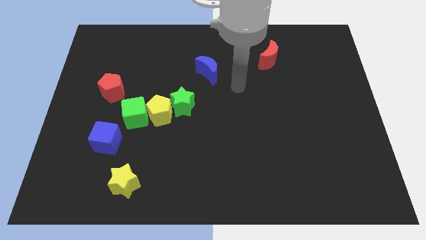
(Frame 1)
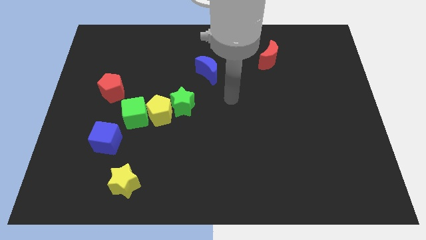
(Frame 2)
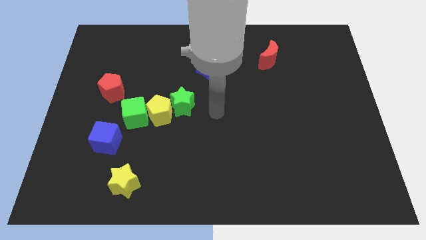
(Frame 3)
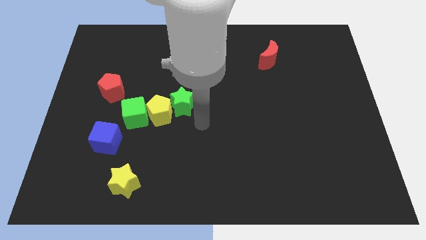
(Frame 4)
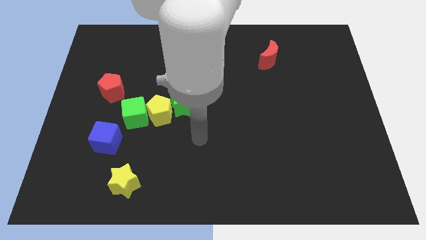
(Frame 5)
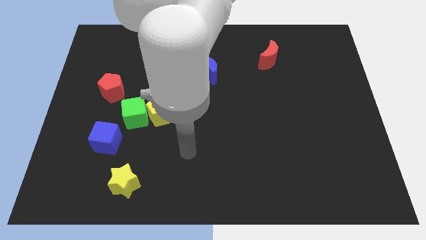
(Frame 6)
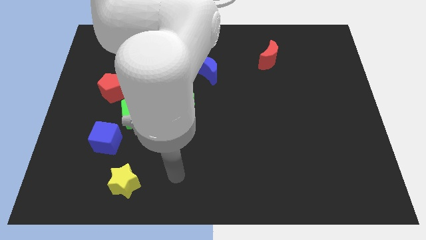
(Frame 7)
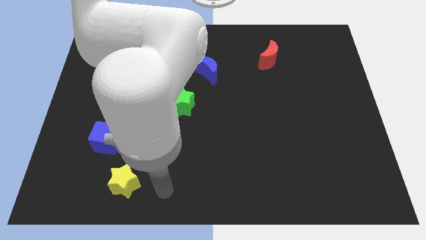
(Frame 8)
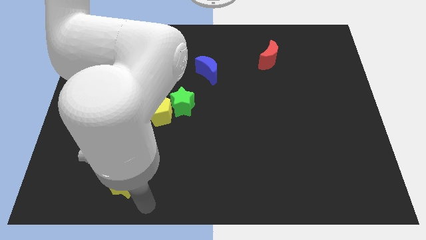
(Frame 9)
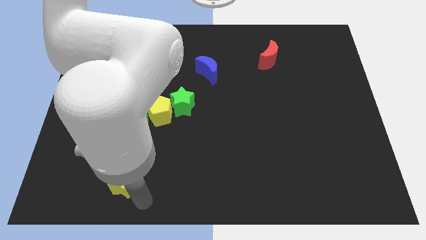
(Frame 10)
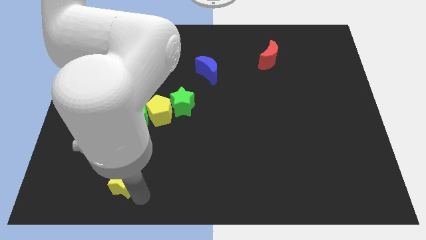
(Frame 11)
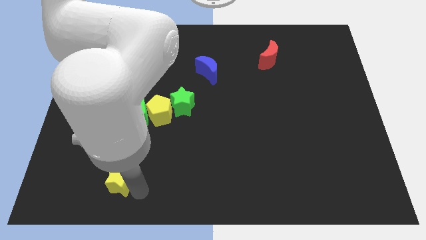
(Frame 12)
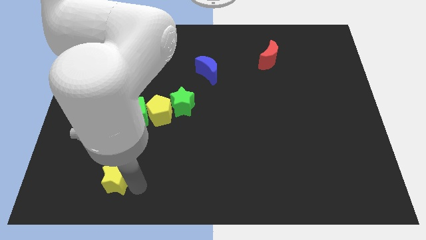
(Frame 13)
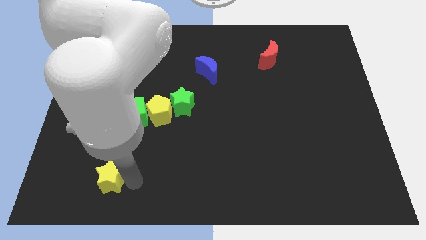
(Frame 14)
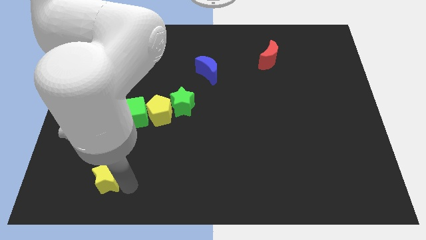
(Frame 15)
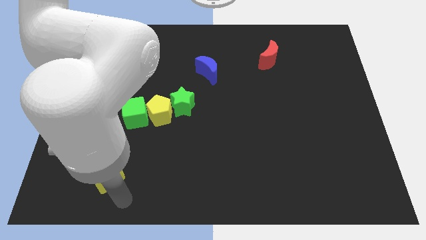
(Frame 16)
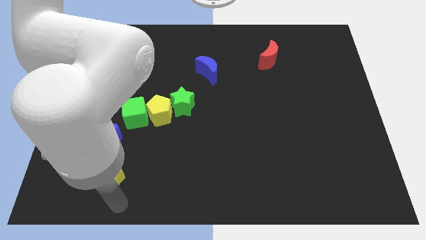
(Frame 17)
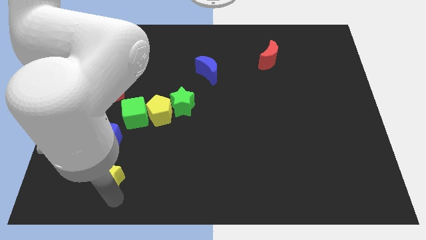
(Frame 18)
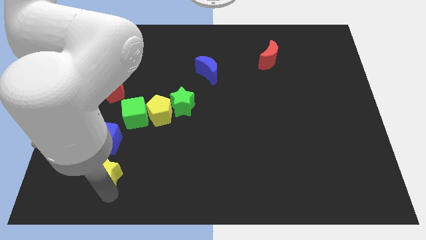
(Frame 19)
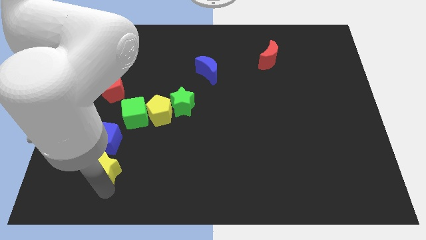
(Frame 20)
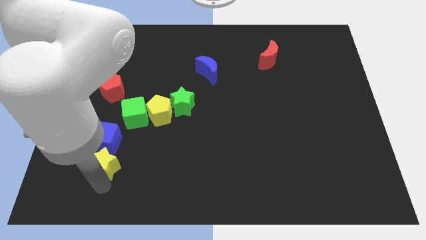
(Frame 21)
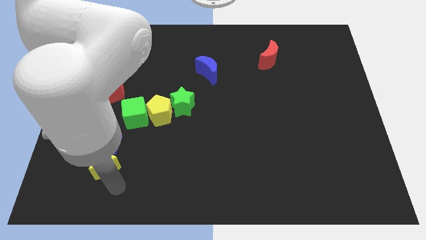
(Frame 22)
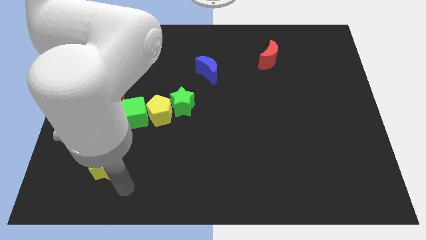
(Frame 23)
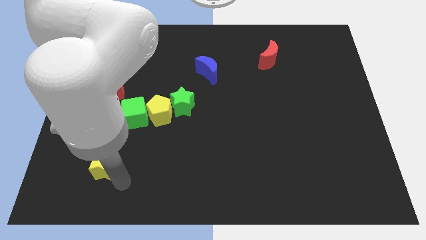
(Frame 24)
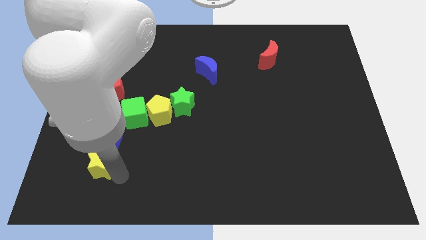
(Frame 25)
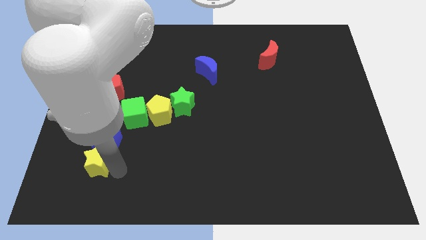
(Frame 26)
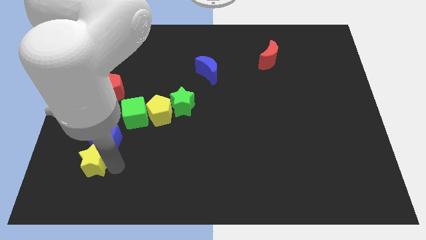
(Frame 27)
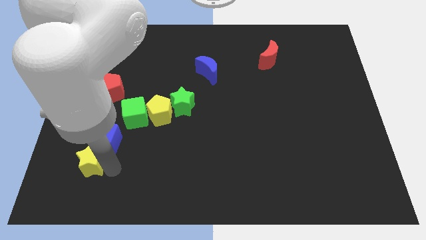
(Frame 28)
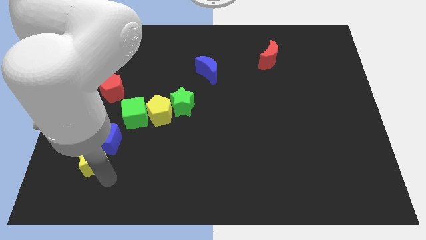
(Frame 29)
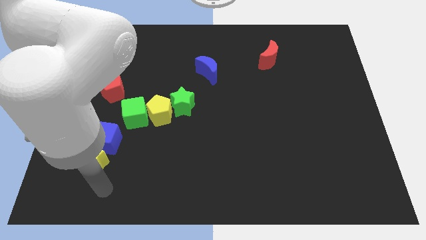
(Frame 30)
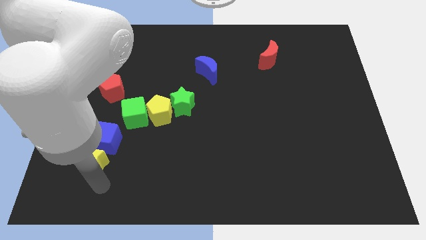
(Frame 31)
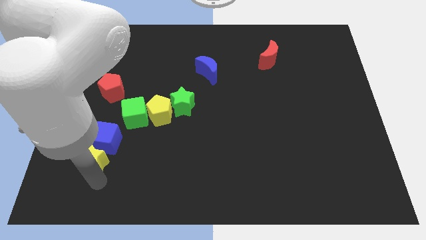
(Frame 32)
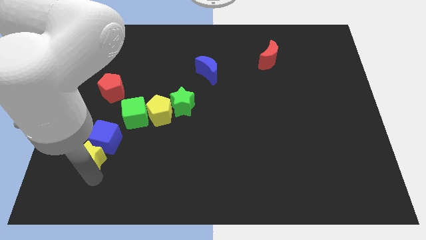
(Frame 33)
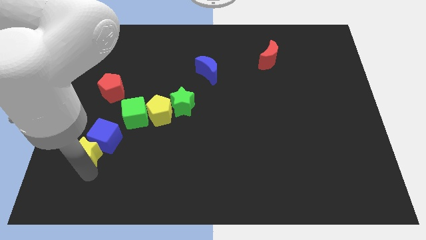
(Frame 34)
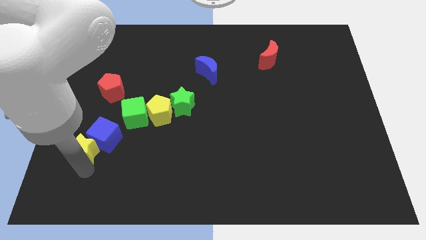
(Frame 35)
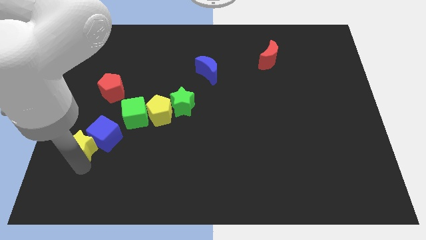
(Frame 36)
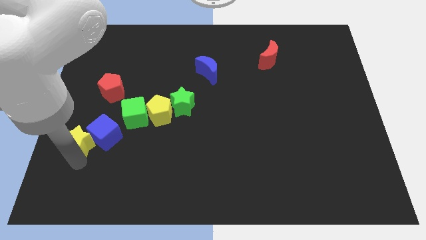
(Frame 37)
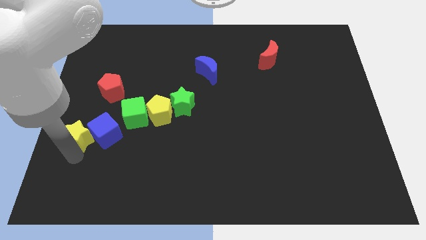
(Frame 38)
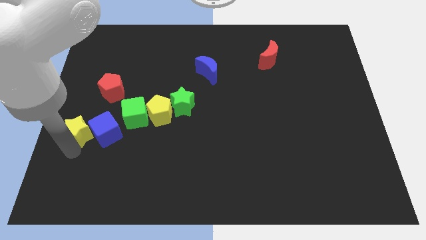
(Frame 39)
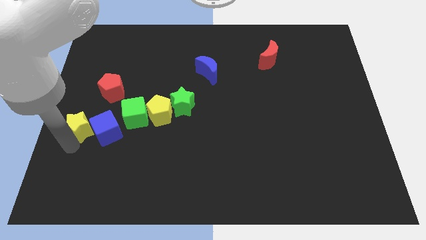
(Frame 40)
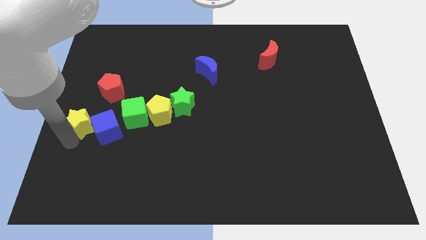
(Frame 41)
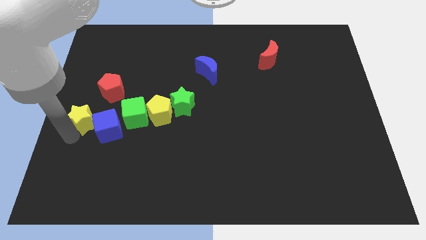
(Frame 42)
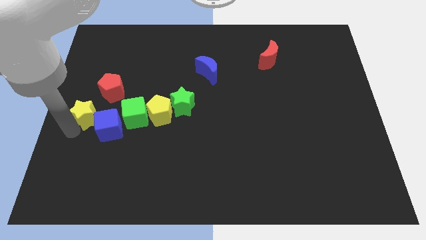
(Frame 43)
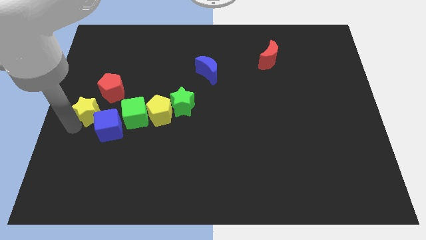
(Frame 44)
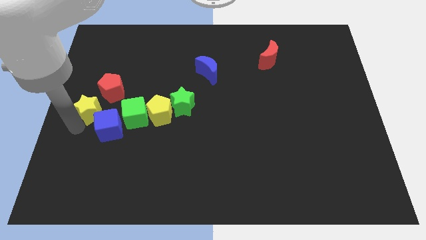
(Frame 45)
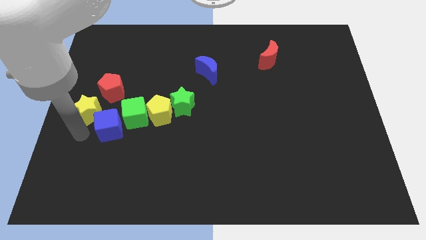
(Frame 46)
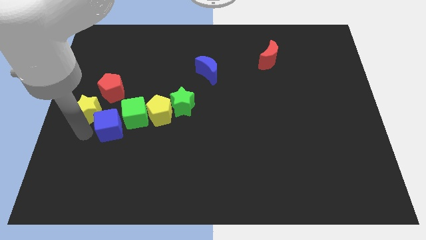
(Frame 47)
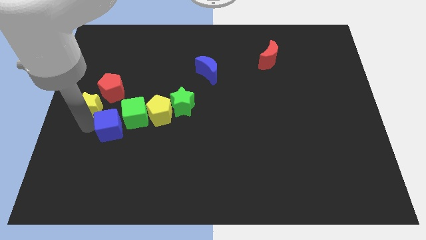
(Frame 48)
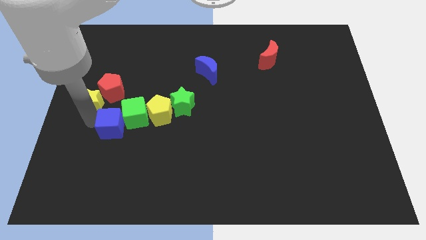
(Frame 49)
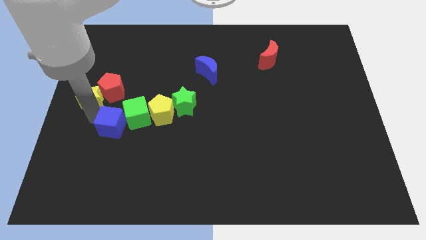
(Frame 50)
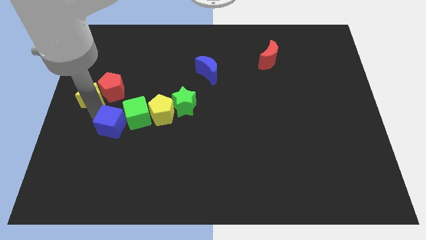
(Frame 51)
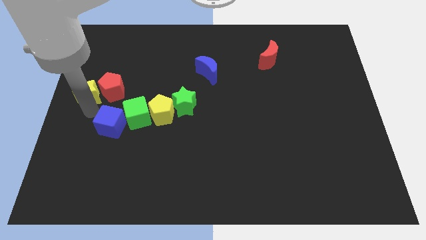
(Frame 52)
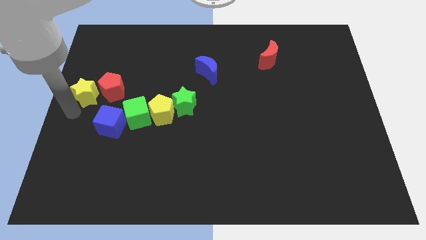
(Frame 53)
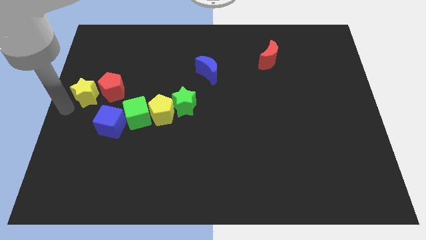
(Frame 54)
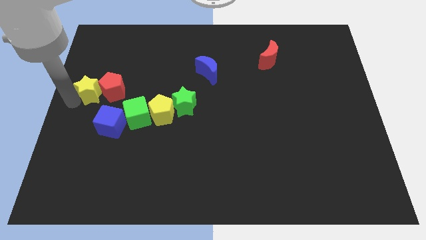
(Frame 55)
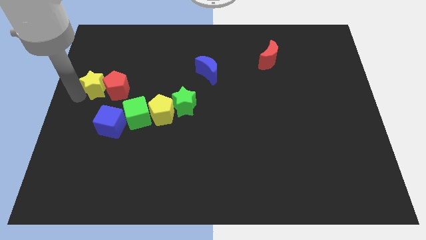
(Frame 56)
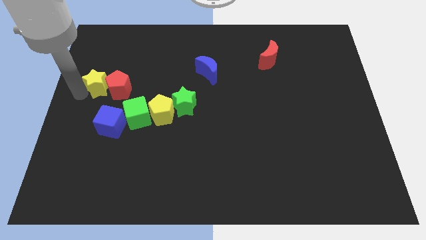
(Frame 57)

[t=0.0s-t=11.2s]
move the yellow star up

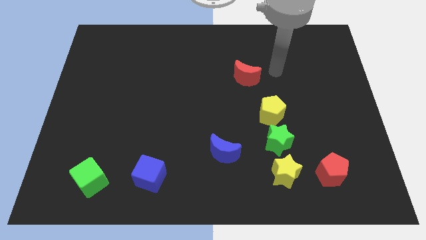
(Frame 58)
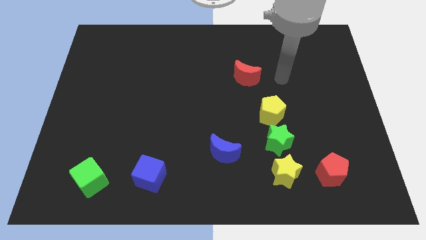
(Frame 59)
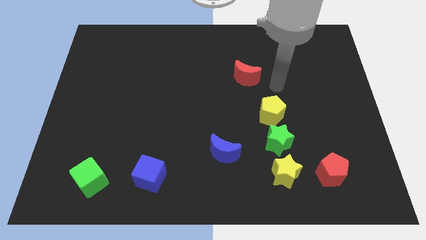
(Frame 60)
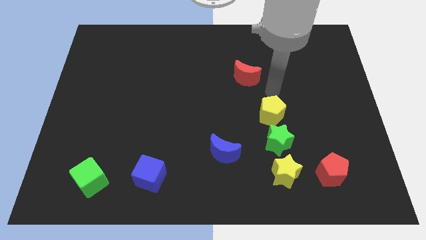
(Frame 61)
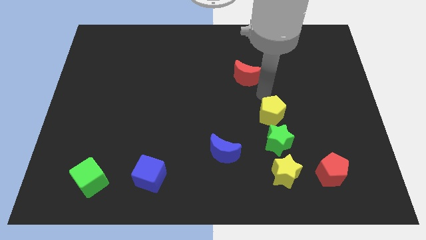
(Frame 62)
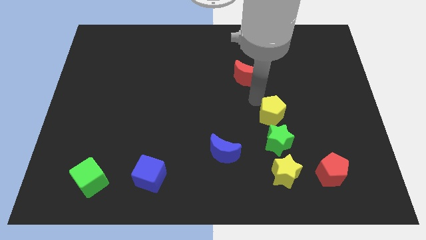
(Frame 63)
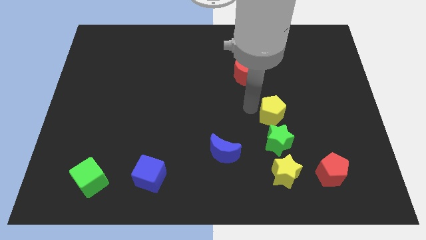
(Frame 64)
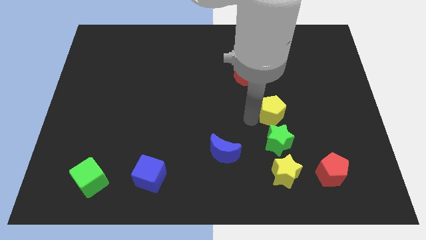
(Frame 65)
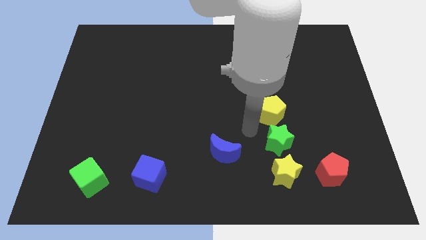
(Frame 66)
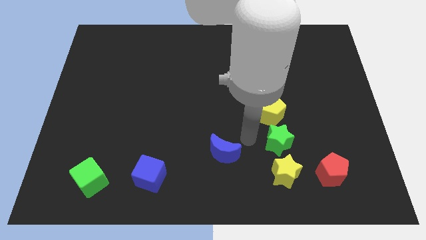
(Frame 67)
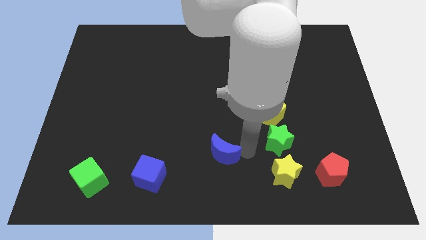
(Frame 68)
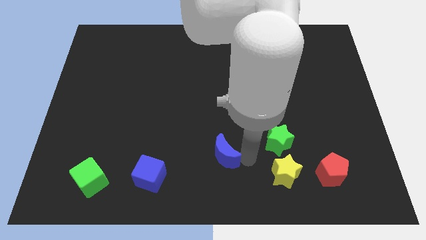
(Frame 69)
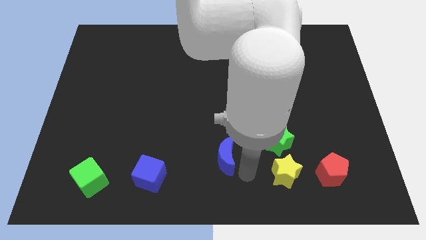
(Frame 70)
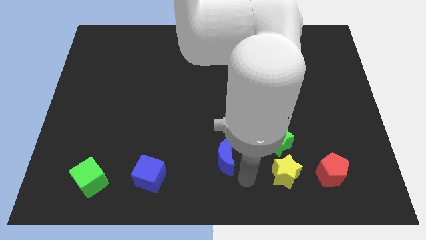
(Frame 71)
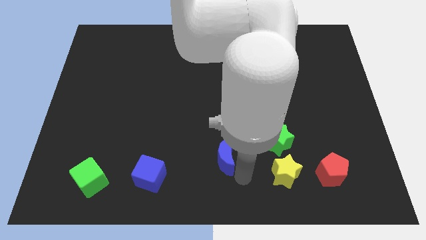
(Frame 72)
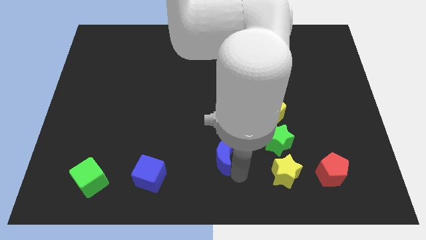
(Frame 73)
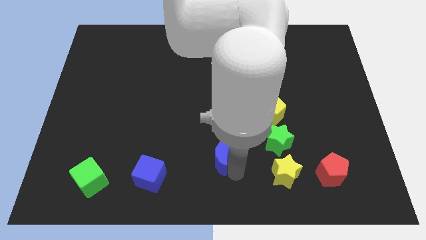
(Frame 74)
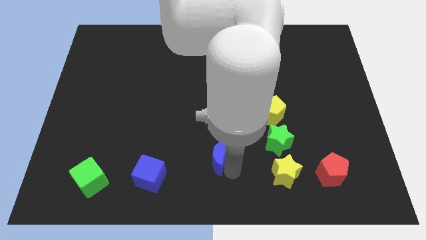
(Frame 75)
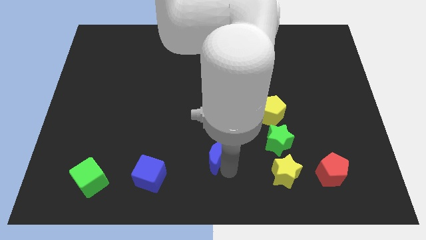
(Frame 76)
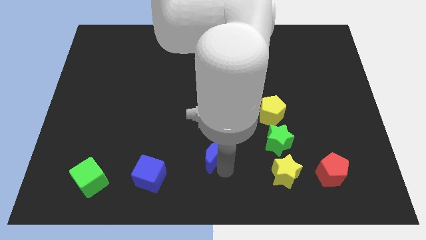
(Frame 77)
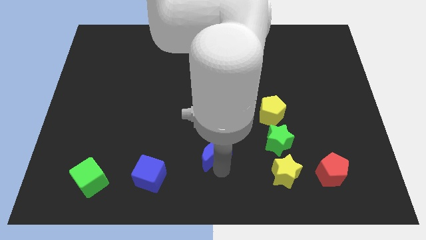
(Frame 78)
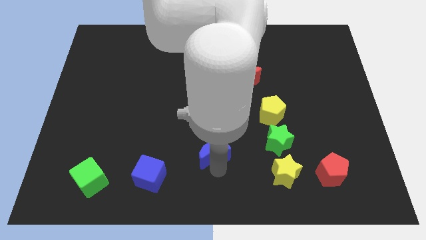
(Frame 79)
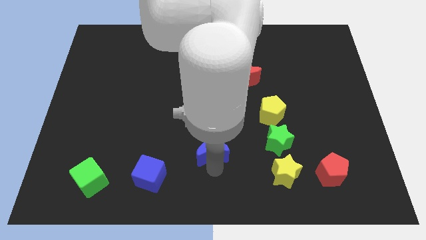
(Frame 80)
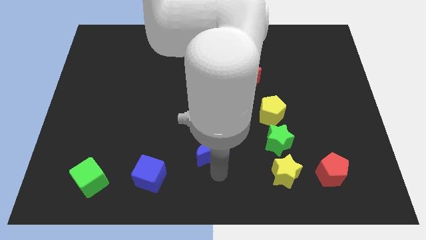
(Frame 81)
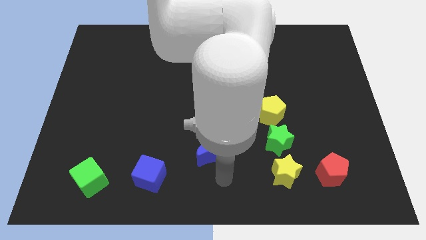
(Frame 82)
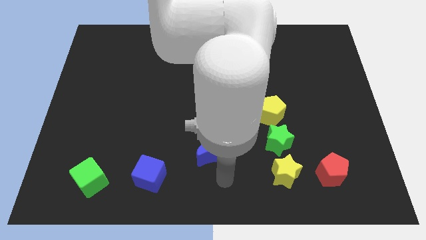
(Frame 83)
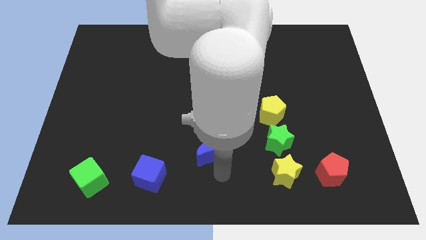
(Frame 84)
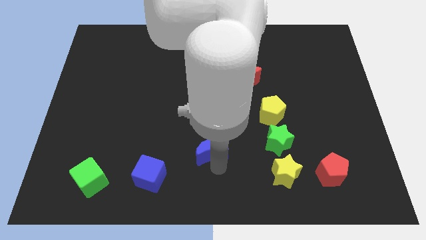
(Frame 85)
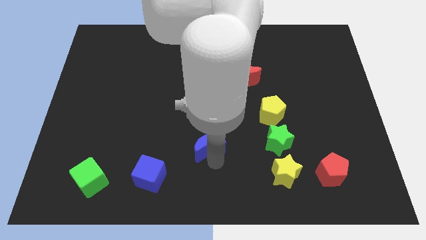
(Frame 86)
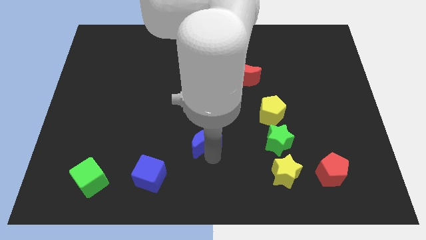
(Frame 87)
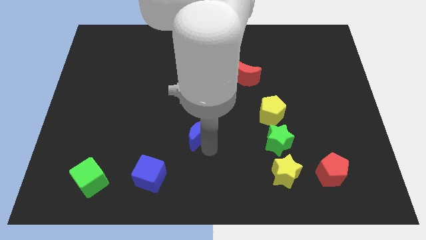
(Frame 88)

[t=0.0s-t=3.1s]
slightly move the blue moon diagonally up and to the left
